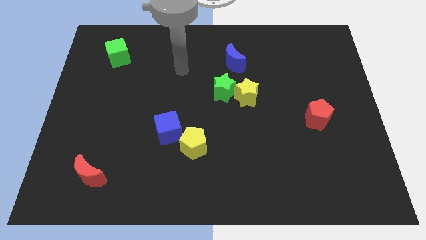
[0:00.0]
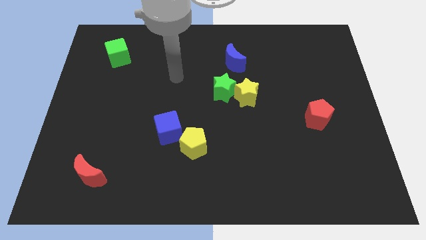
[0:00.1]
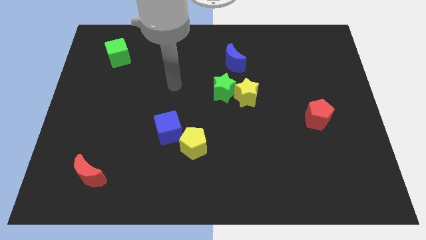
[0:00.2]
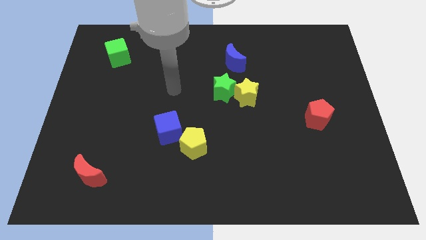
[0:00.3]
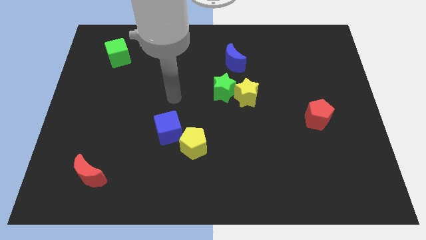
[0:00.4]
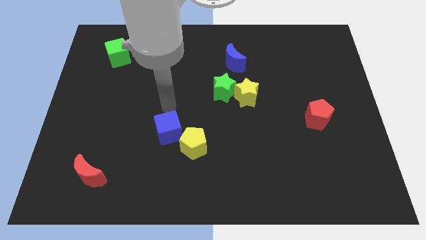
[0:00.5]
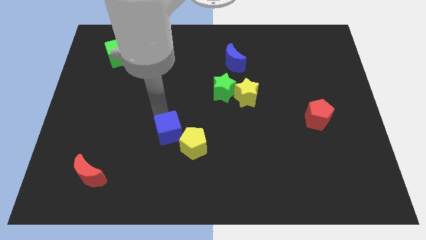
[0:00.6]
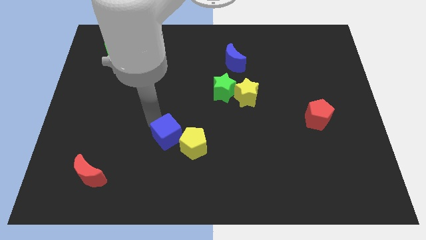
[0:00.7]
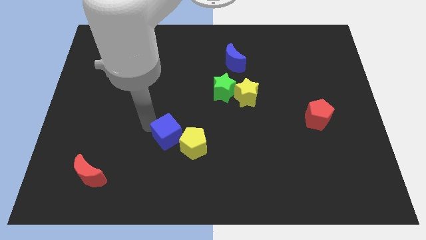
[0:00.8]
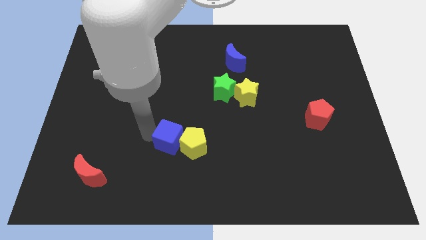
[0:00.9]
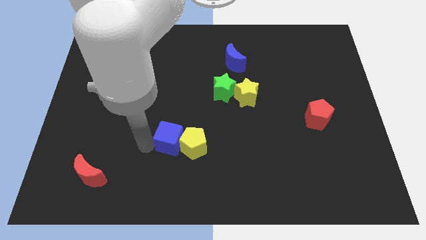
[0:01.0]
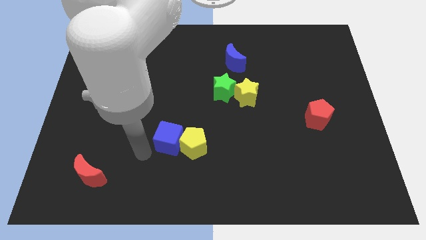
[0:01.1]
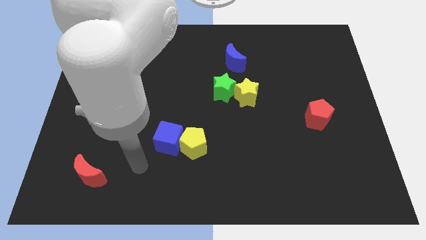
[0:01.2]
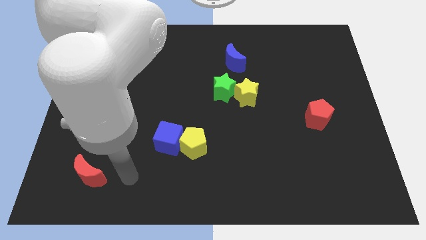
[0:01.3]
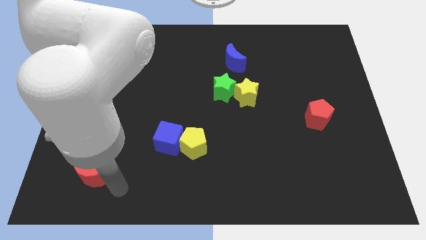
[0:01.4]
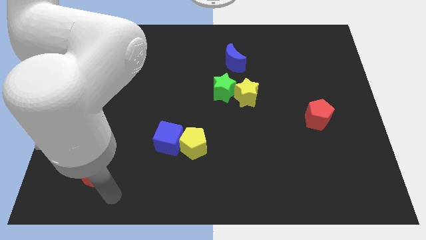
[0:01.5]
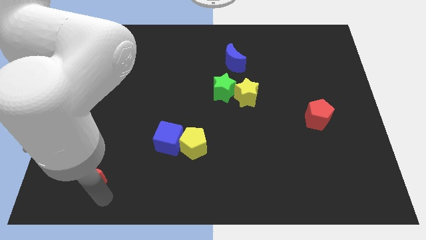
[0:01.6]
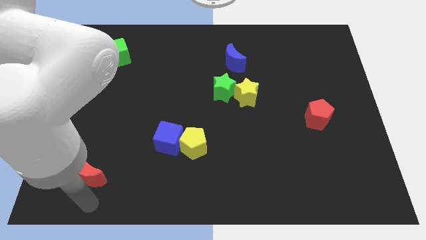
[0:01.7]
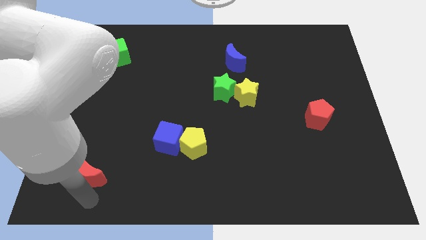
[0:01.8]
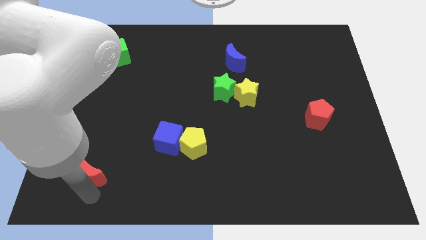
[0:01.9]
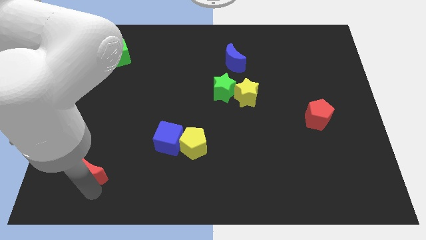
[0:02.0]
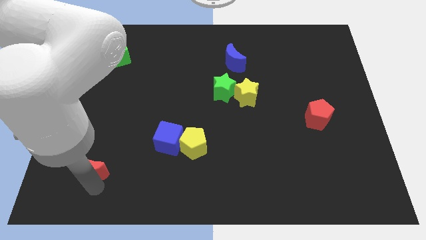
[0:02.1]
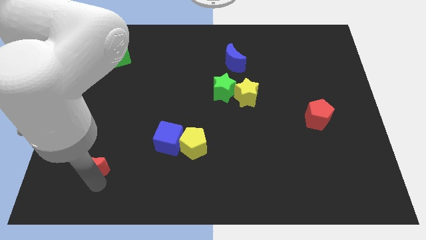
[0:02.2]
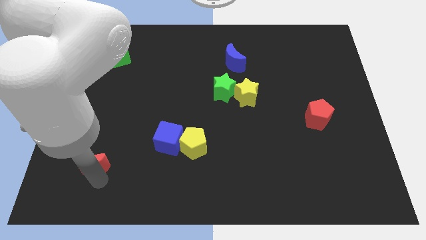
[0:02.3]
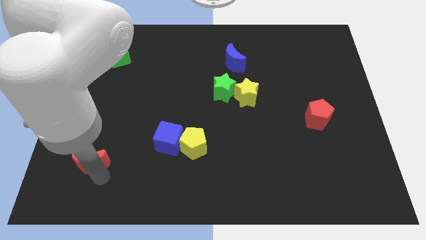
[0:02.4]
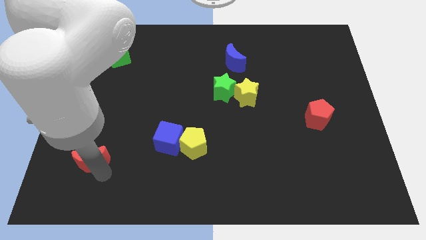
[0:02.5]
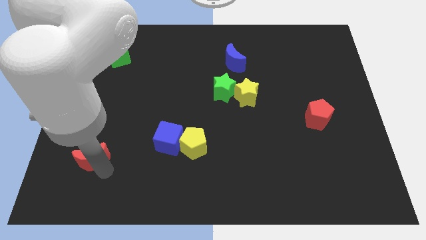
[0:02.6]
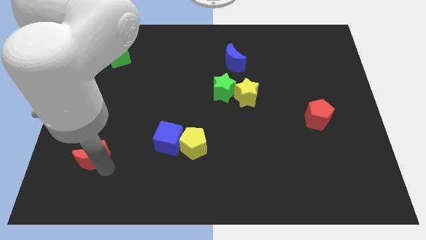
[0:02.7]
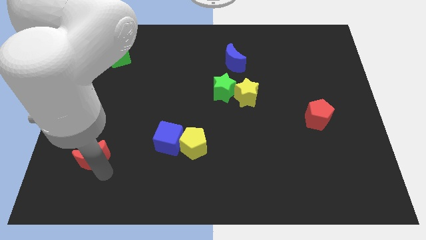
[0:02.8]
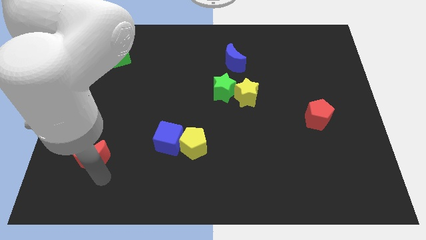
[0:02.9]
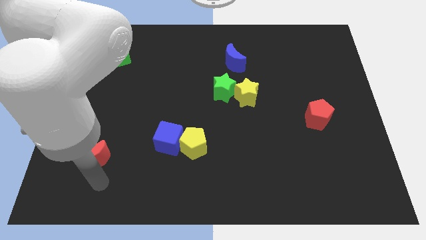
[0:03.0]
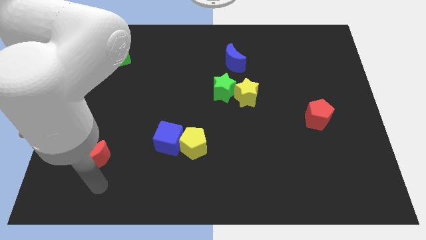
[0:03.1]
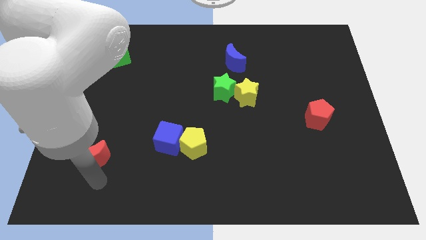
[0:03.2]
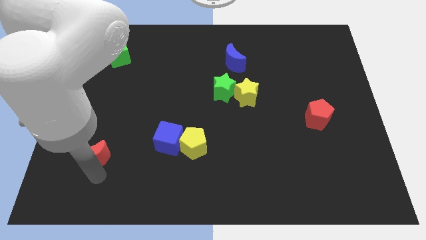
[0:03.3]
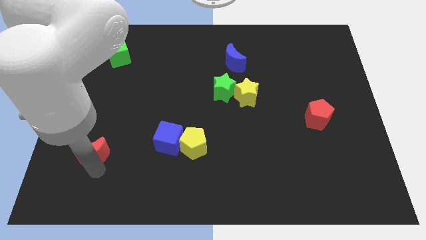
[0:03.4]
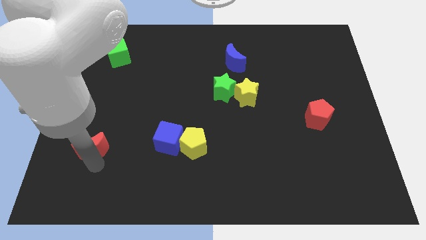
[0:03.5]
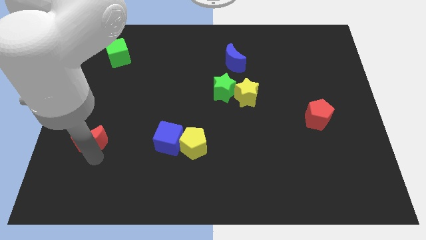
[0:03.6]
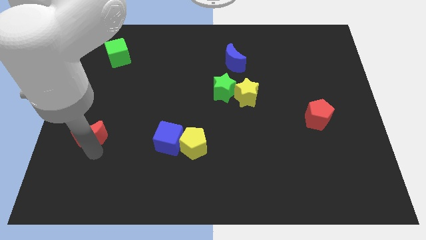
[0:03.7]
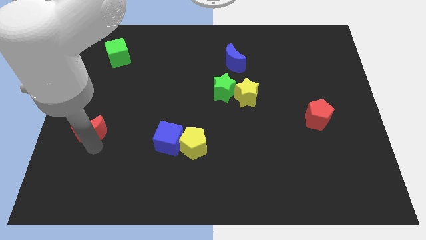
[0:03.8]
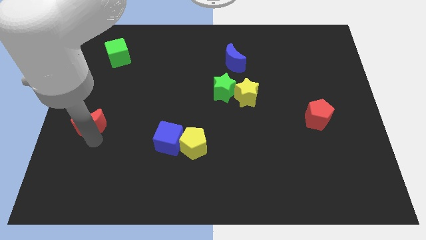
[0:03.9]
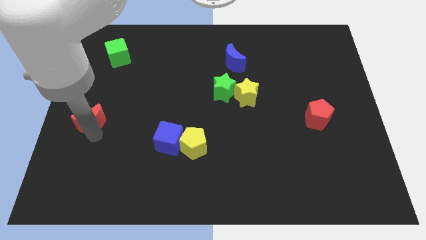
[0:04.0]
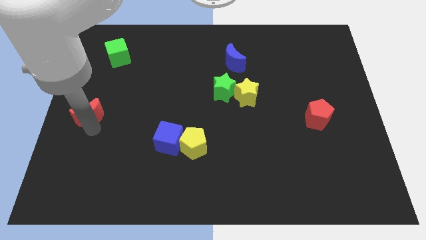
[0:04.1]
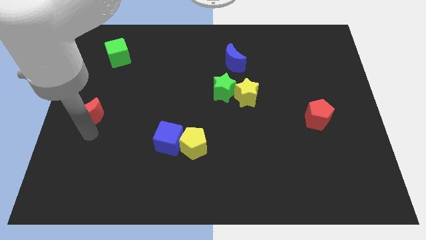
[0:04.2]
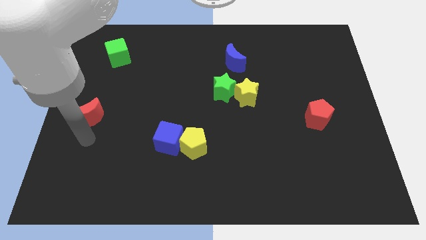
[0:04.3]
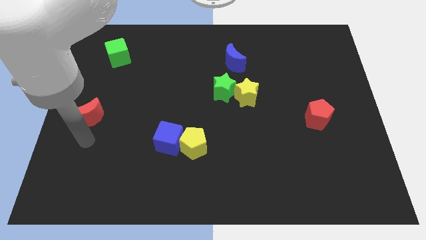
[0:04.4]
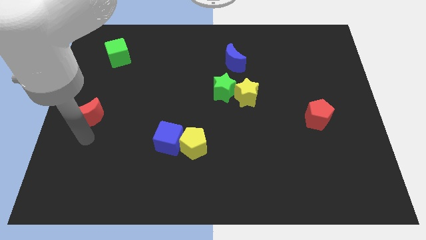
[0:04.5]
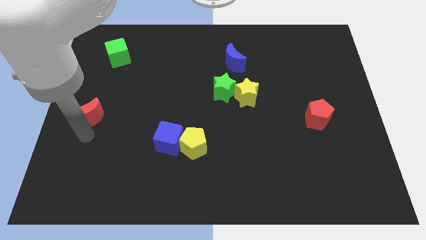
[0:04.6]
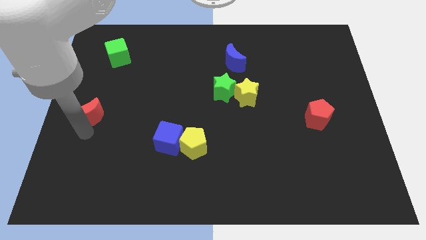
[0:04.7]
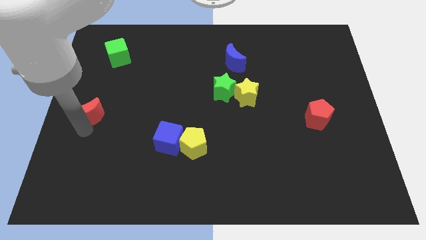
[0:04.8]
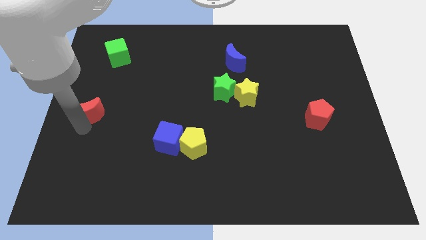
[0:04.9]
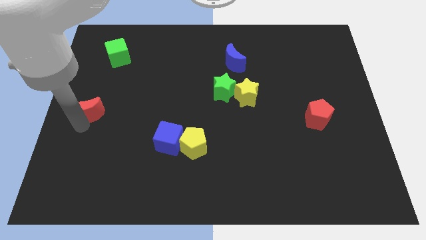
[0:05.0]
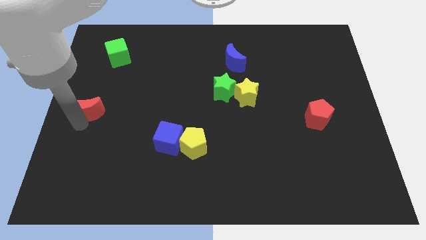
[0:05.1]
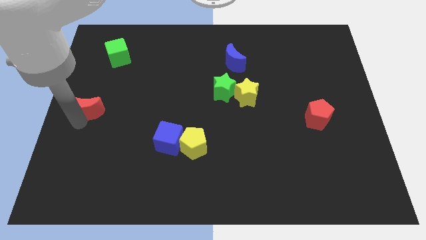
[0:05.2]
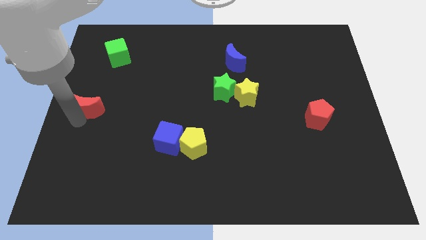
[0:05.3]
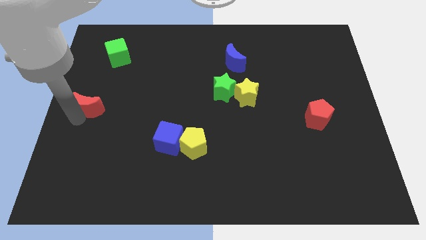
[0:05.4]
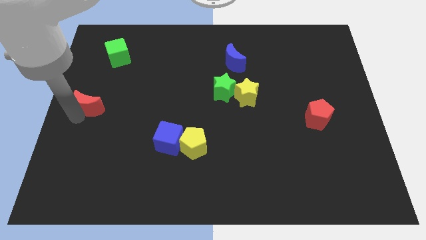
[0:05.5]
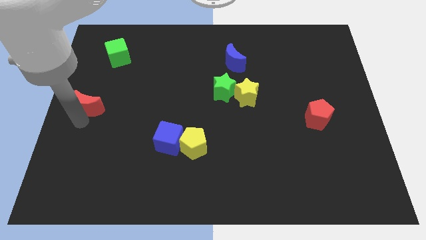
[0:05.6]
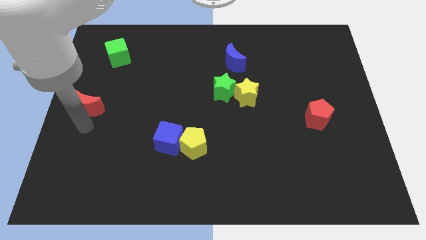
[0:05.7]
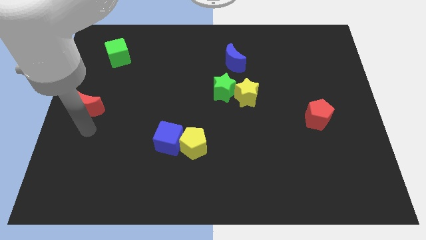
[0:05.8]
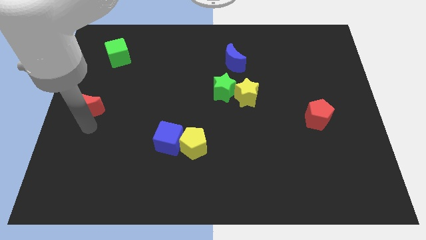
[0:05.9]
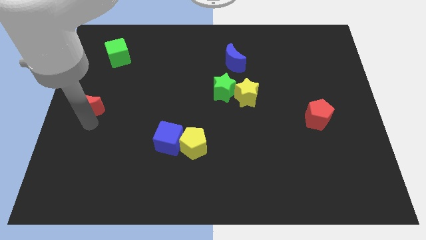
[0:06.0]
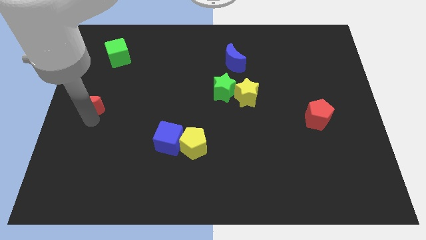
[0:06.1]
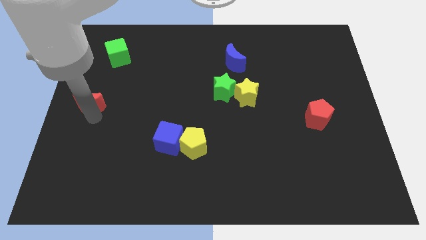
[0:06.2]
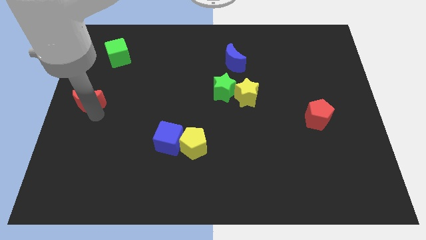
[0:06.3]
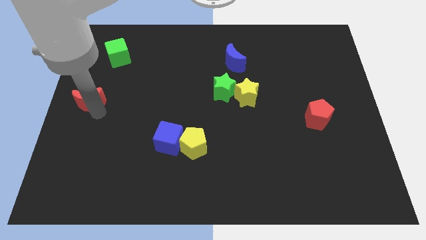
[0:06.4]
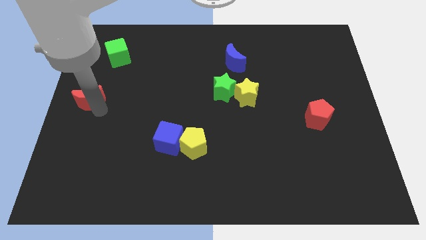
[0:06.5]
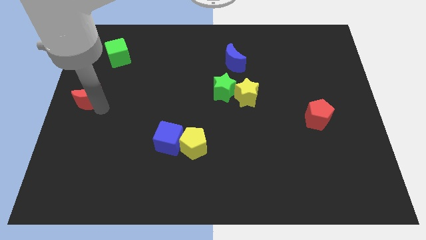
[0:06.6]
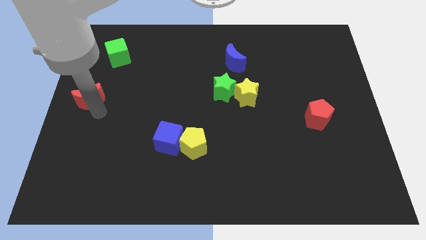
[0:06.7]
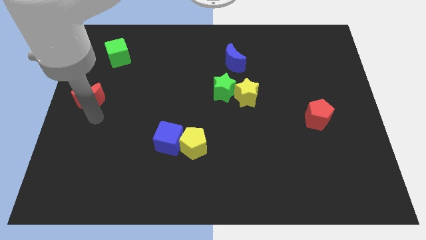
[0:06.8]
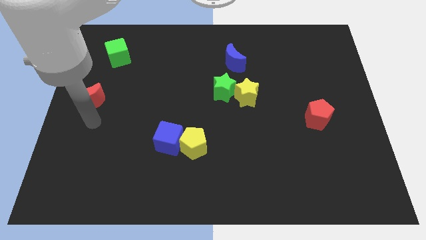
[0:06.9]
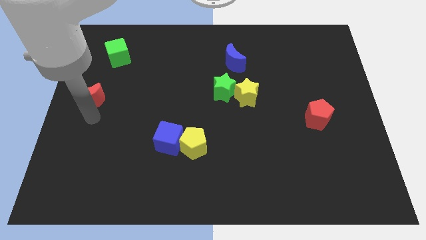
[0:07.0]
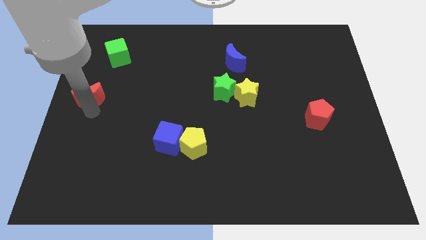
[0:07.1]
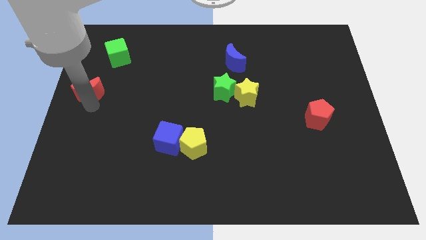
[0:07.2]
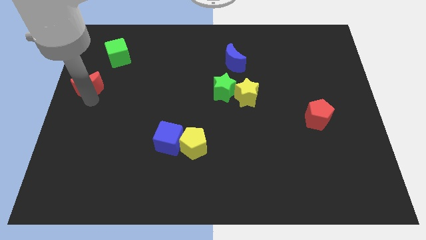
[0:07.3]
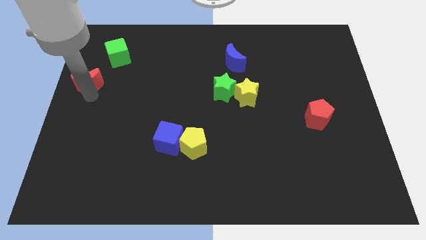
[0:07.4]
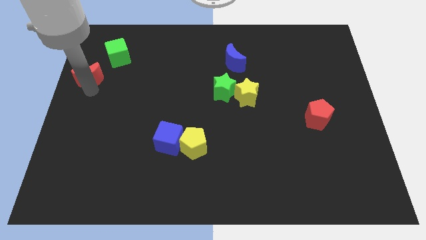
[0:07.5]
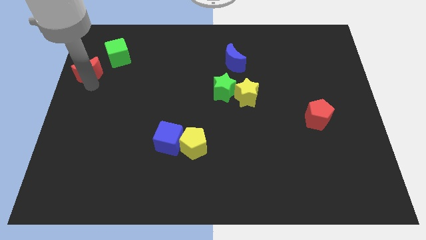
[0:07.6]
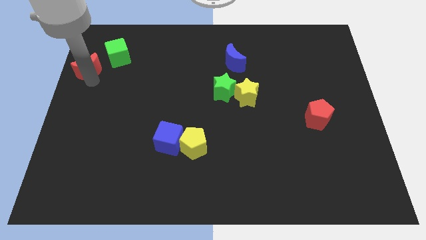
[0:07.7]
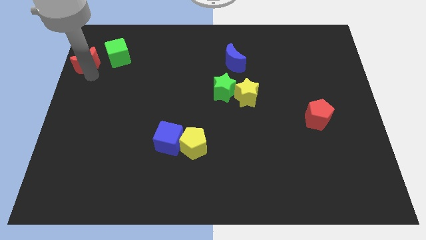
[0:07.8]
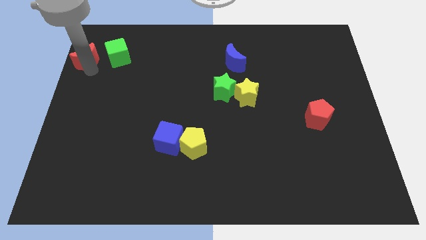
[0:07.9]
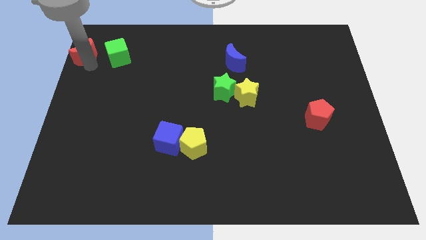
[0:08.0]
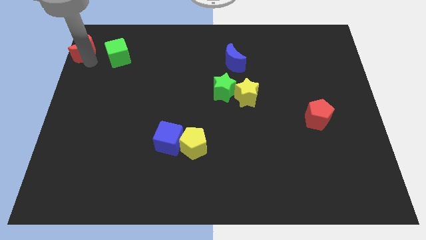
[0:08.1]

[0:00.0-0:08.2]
slide the red moon to the upper left corner
